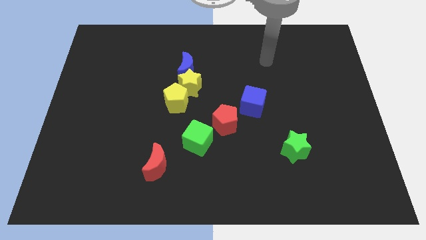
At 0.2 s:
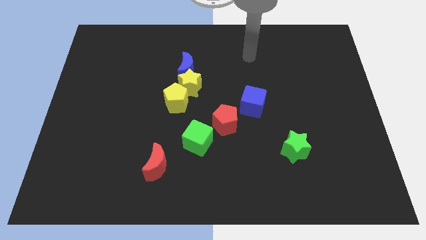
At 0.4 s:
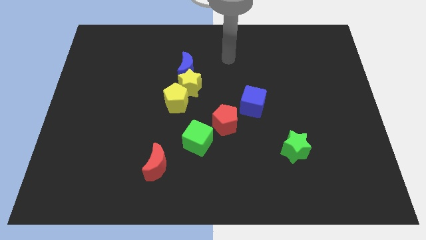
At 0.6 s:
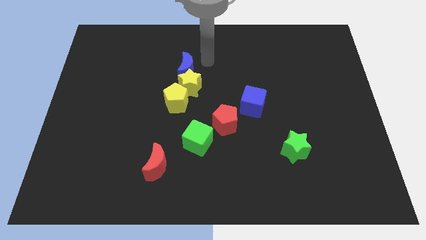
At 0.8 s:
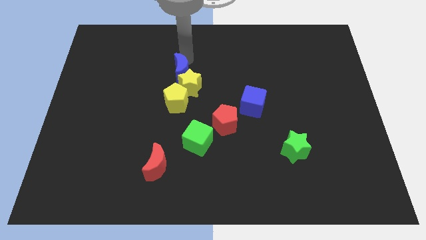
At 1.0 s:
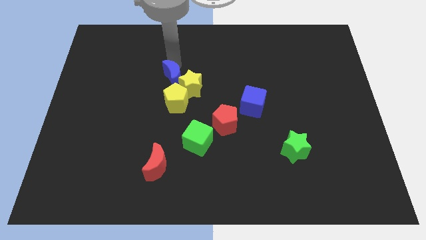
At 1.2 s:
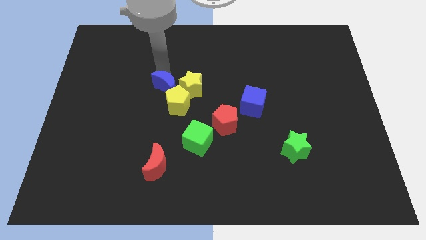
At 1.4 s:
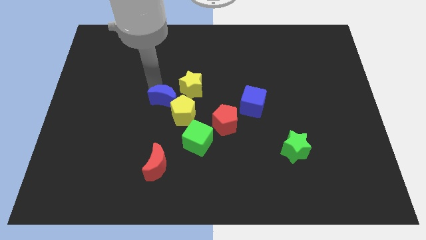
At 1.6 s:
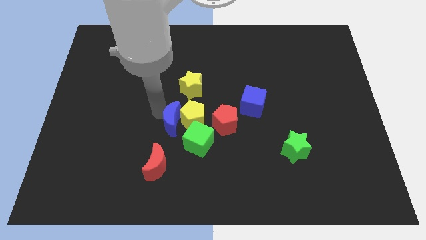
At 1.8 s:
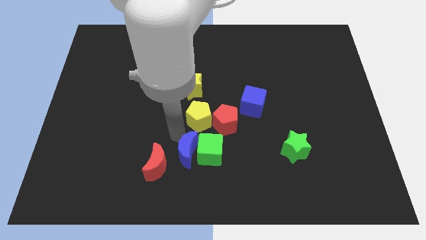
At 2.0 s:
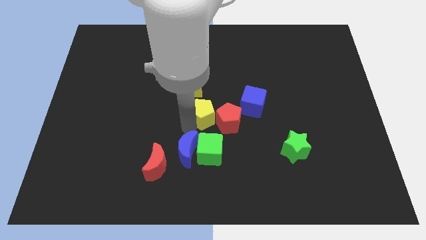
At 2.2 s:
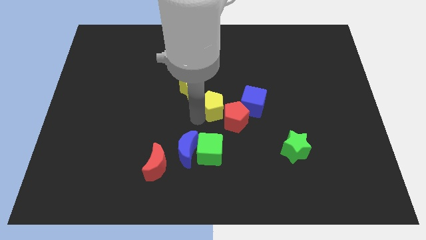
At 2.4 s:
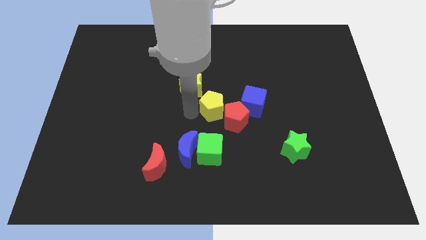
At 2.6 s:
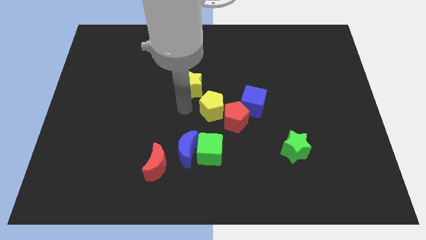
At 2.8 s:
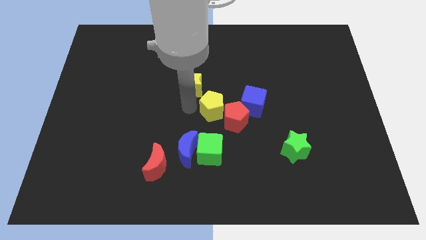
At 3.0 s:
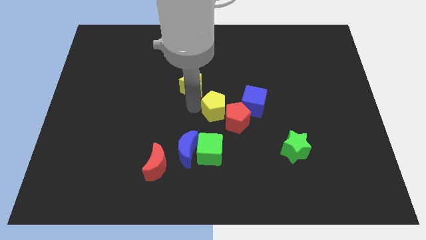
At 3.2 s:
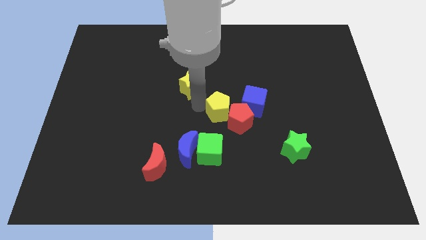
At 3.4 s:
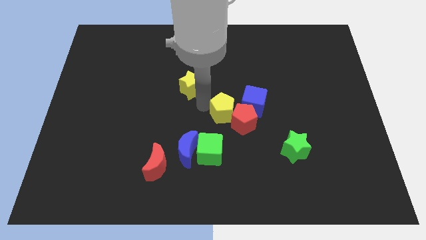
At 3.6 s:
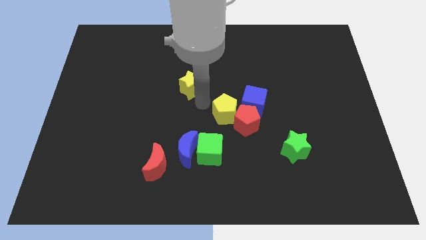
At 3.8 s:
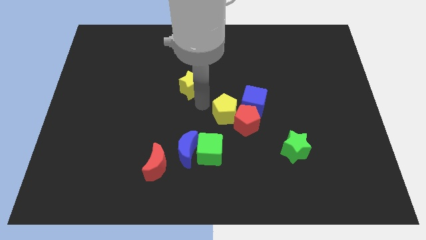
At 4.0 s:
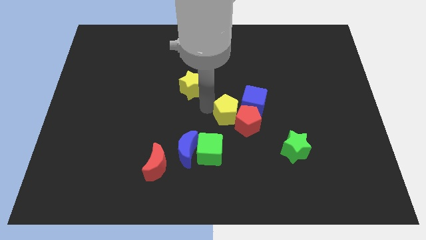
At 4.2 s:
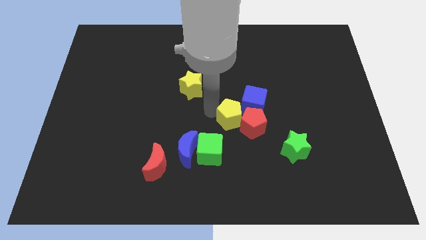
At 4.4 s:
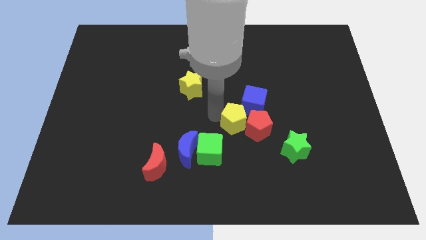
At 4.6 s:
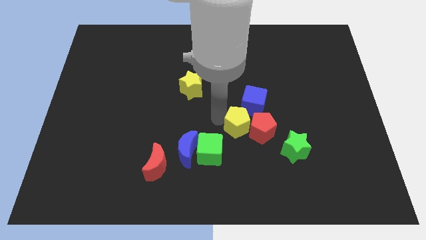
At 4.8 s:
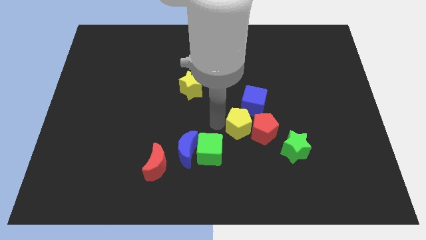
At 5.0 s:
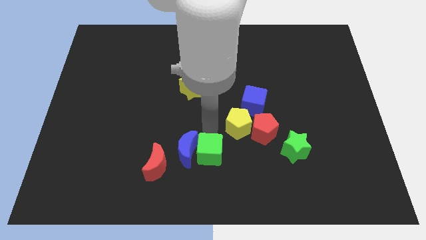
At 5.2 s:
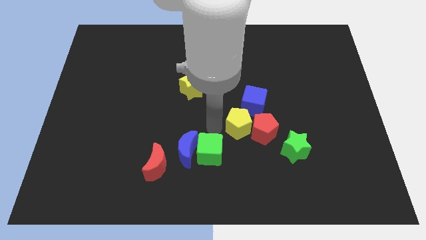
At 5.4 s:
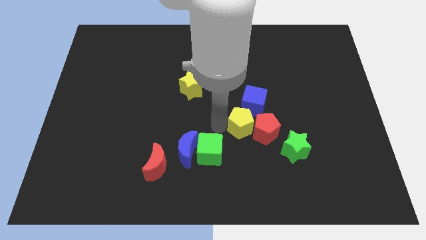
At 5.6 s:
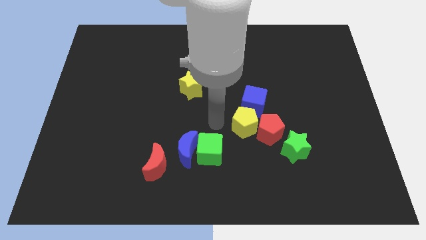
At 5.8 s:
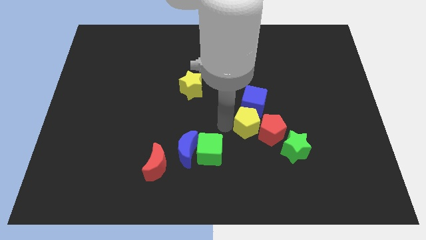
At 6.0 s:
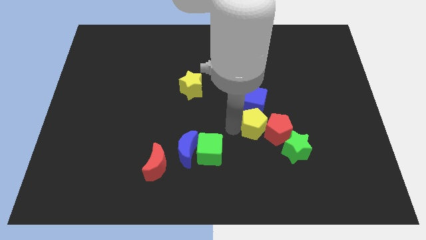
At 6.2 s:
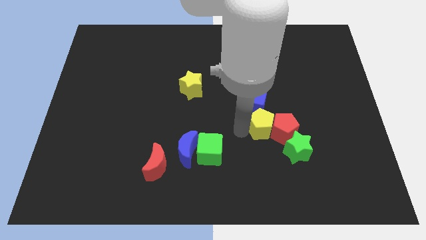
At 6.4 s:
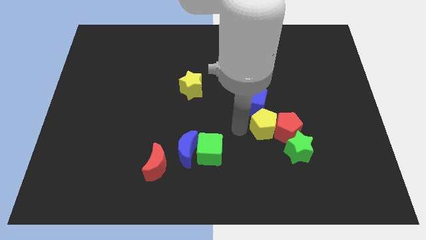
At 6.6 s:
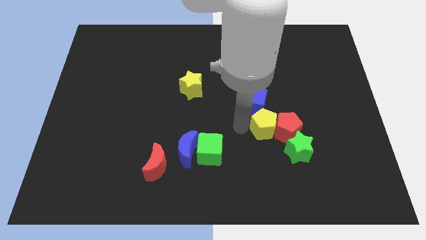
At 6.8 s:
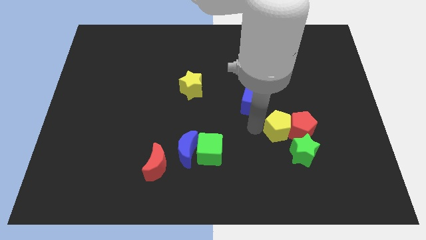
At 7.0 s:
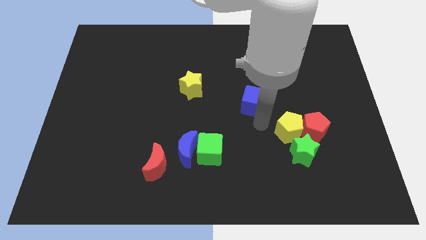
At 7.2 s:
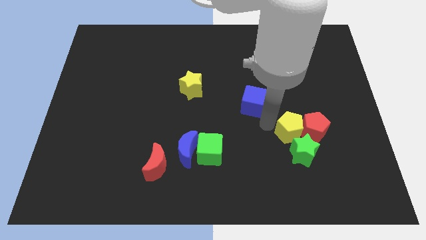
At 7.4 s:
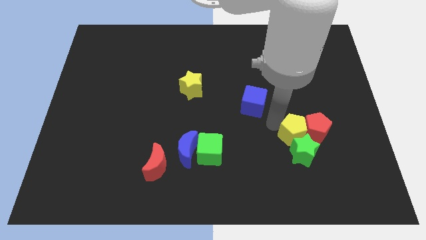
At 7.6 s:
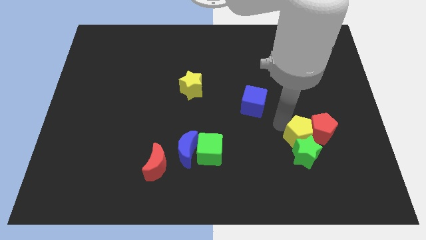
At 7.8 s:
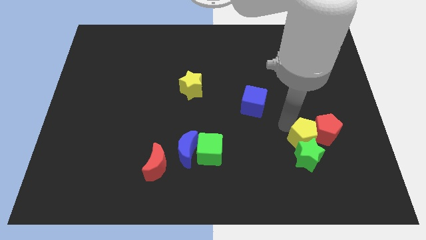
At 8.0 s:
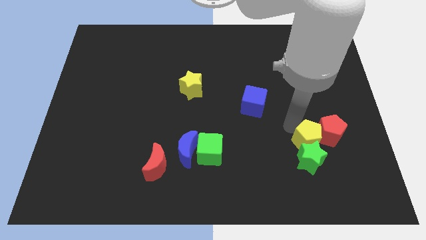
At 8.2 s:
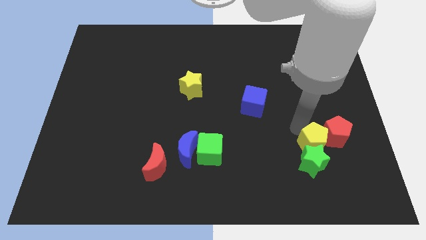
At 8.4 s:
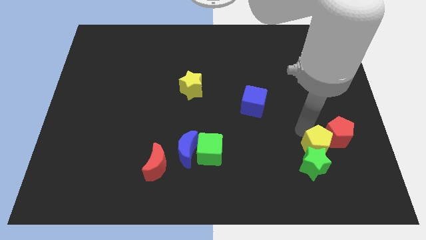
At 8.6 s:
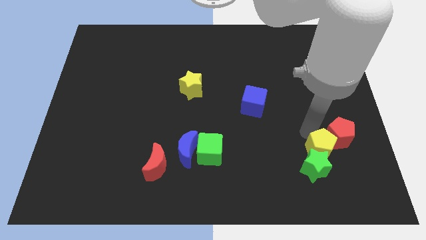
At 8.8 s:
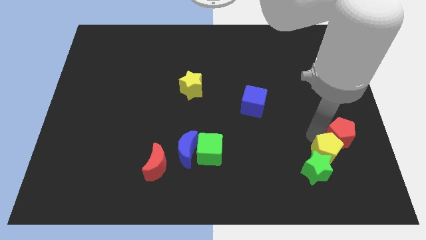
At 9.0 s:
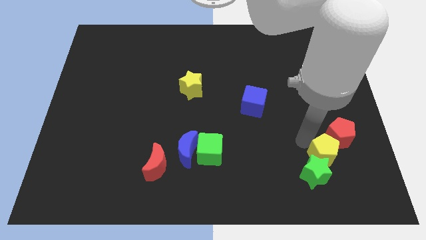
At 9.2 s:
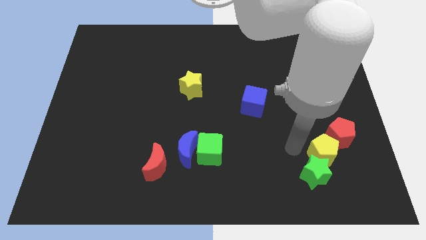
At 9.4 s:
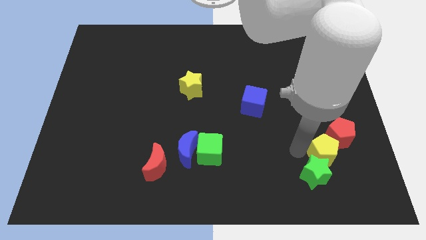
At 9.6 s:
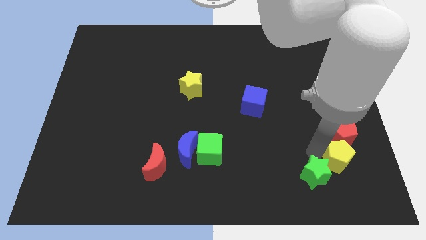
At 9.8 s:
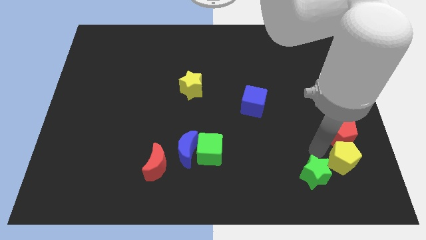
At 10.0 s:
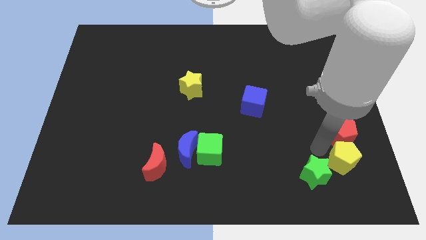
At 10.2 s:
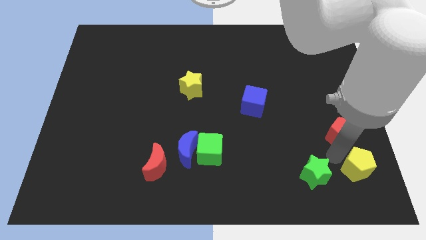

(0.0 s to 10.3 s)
put the yellow pentagon to the bottom right corner

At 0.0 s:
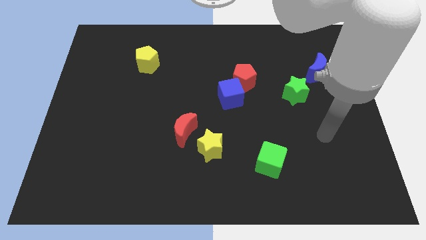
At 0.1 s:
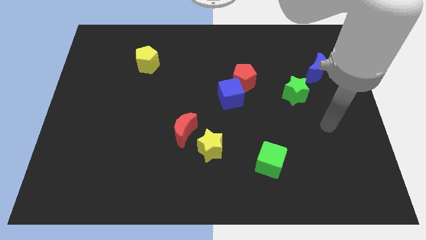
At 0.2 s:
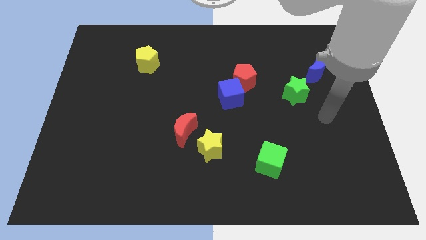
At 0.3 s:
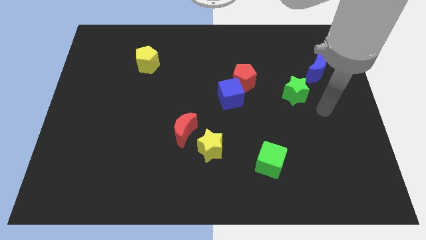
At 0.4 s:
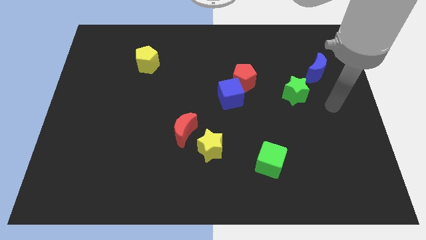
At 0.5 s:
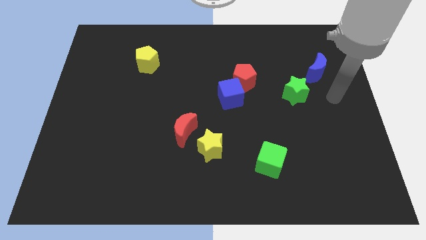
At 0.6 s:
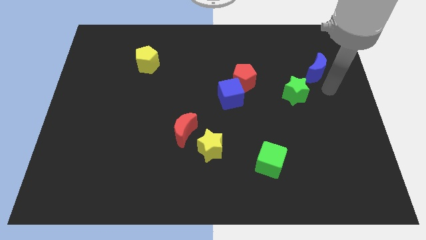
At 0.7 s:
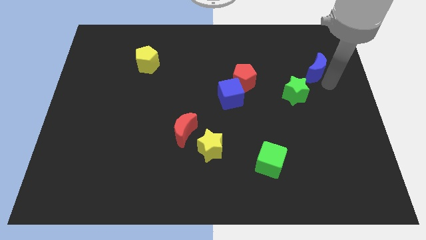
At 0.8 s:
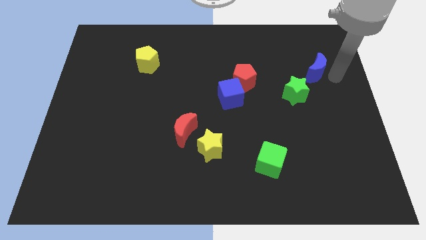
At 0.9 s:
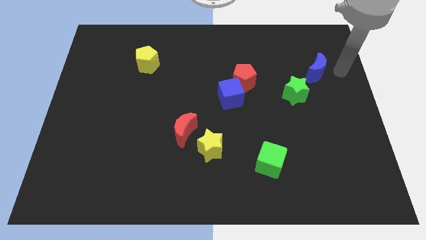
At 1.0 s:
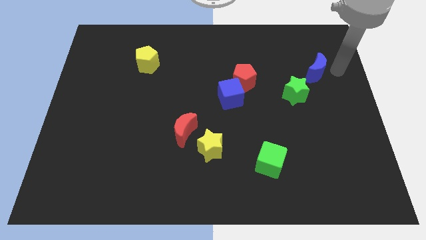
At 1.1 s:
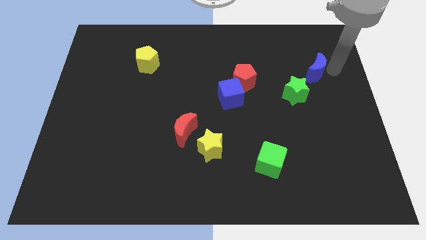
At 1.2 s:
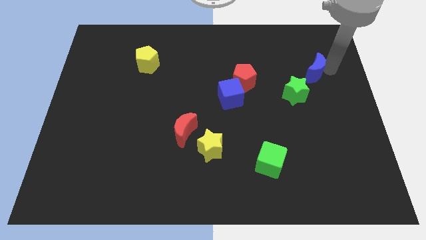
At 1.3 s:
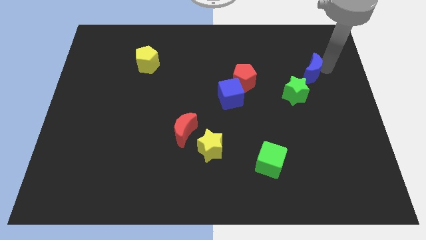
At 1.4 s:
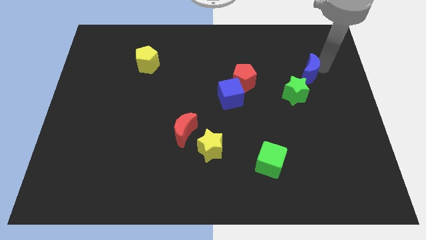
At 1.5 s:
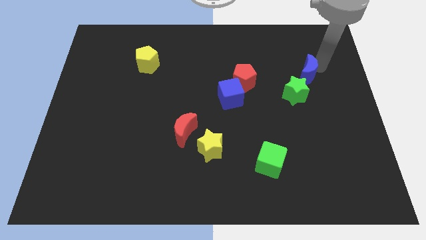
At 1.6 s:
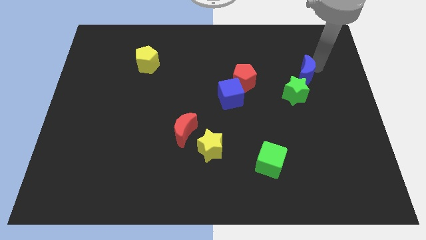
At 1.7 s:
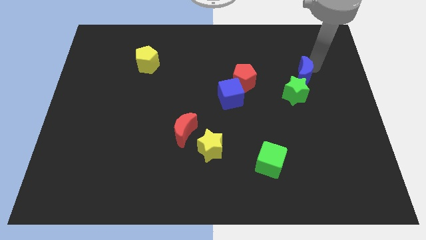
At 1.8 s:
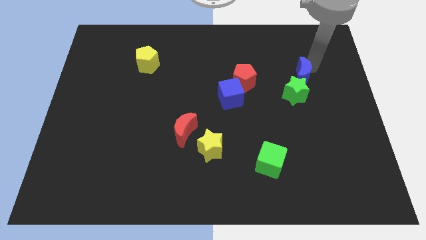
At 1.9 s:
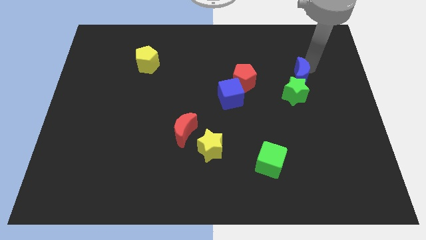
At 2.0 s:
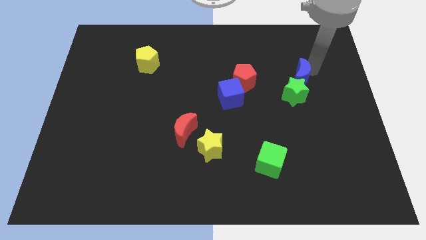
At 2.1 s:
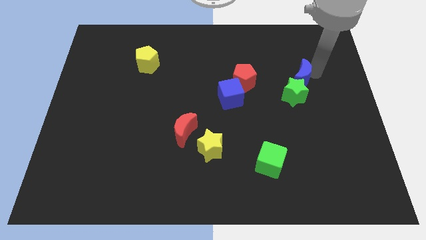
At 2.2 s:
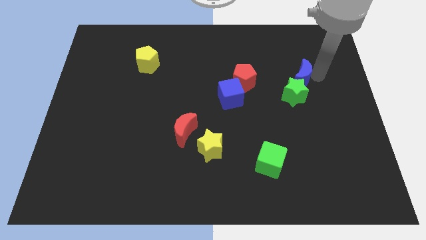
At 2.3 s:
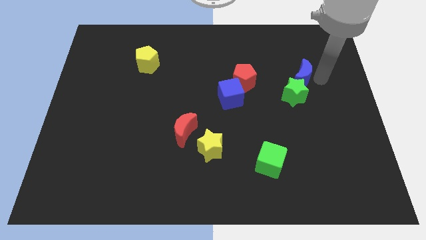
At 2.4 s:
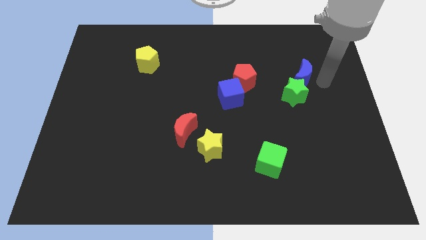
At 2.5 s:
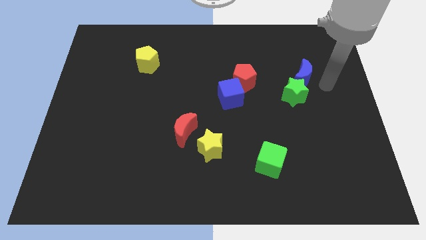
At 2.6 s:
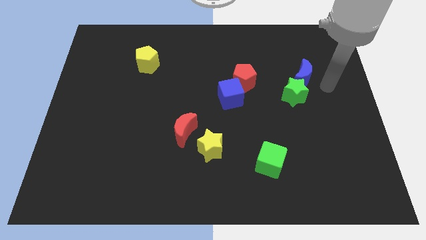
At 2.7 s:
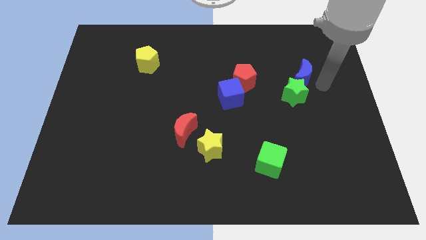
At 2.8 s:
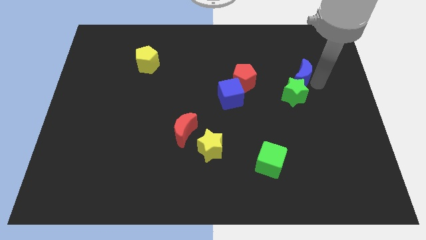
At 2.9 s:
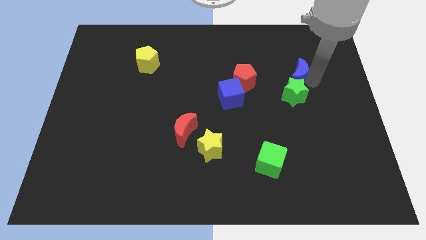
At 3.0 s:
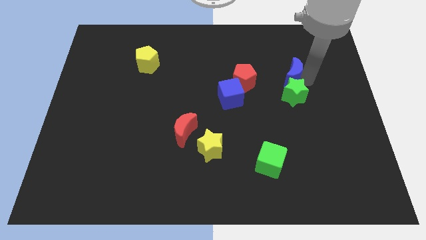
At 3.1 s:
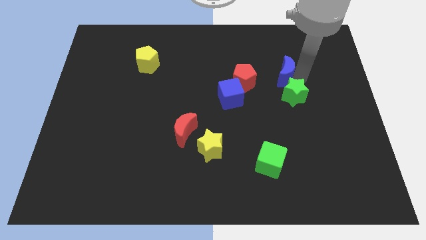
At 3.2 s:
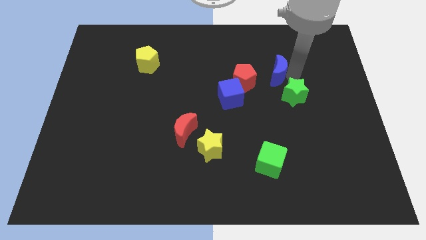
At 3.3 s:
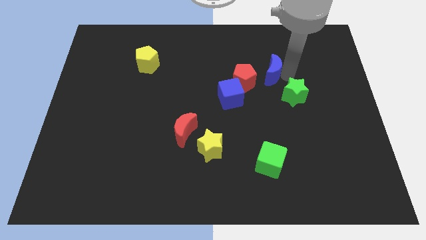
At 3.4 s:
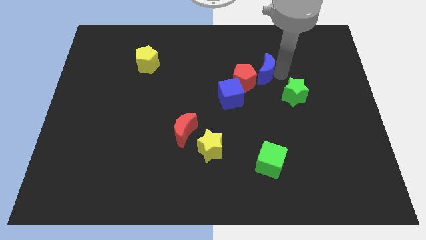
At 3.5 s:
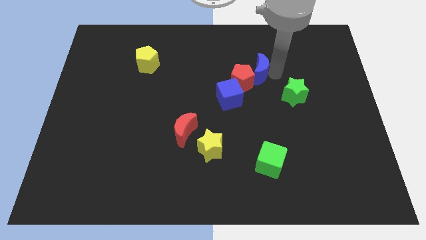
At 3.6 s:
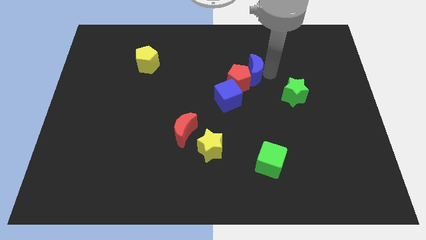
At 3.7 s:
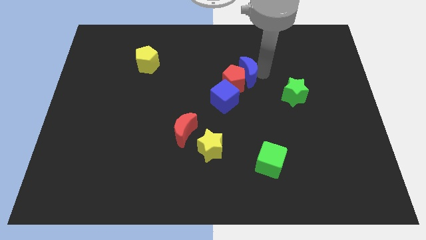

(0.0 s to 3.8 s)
slide the blue moon to the center
